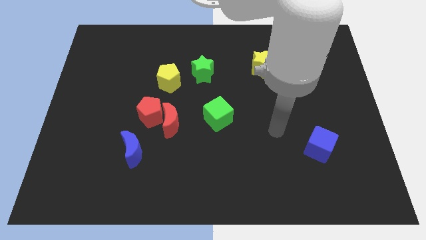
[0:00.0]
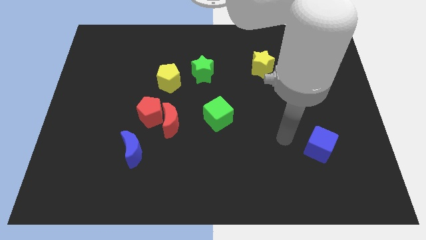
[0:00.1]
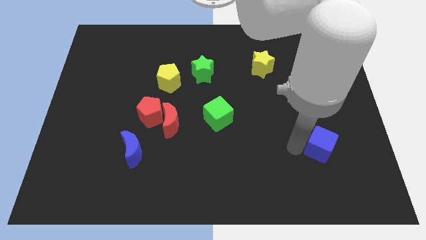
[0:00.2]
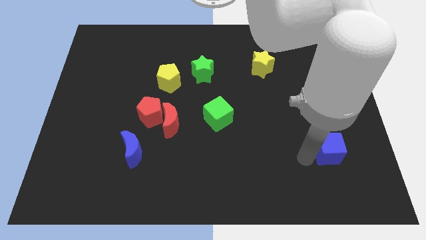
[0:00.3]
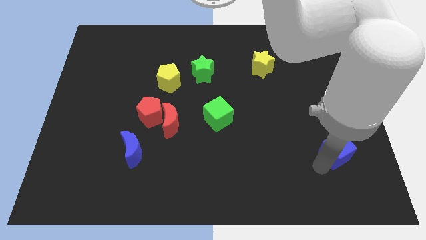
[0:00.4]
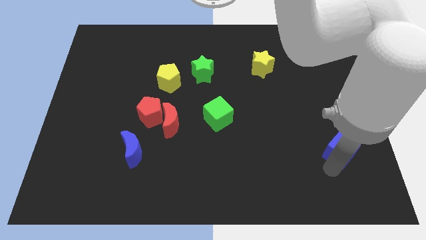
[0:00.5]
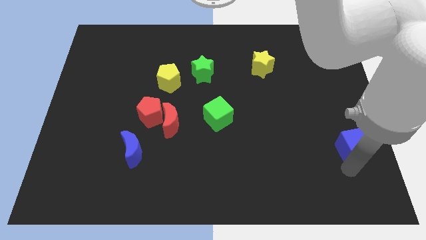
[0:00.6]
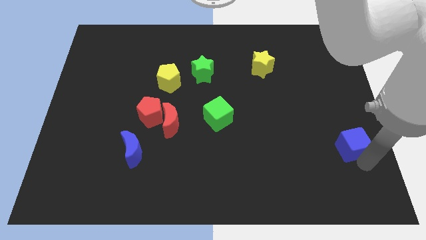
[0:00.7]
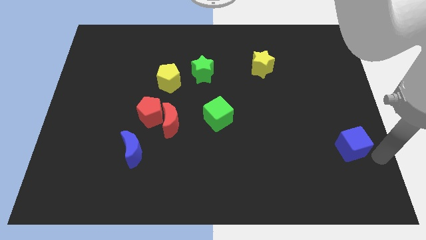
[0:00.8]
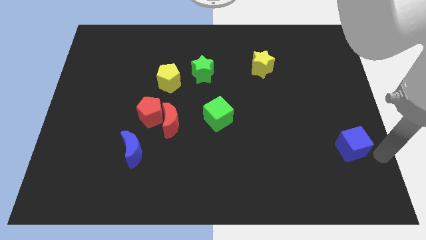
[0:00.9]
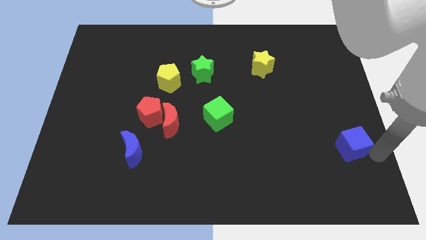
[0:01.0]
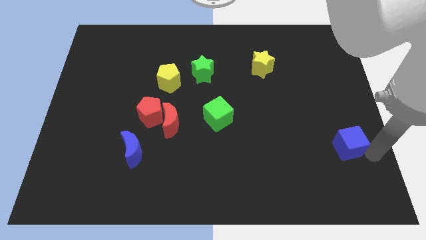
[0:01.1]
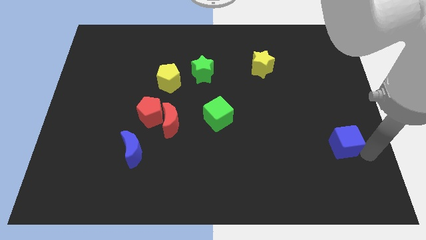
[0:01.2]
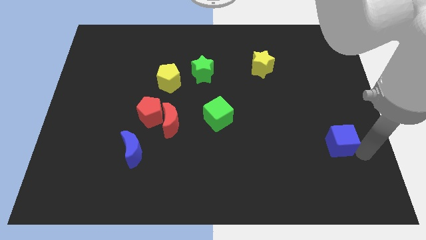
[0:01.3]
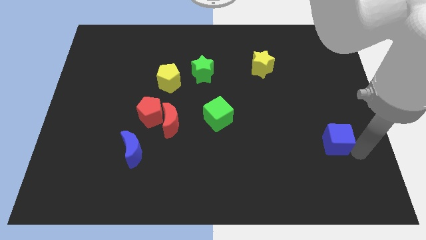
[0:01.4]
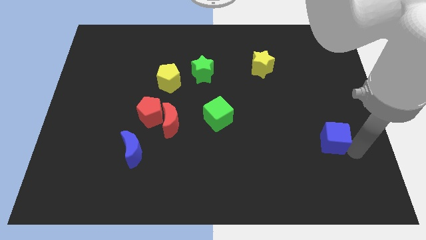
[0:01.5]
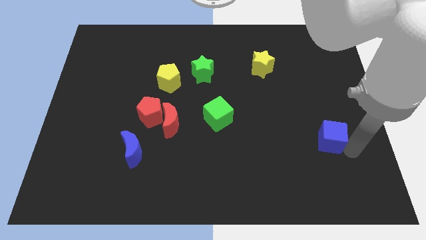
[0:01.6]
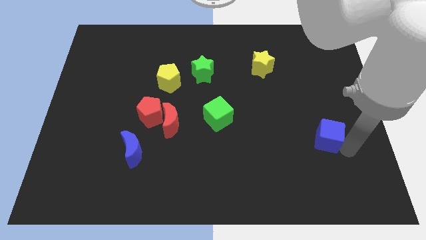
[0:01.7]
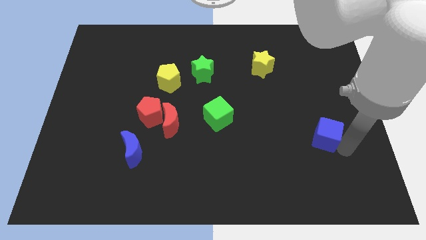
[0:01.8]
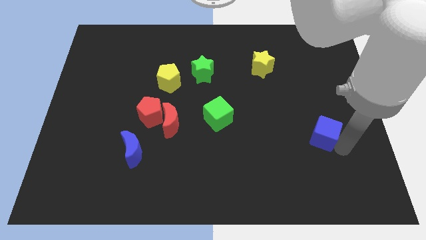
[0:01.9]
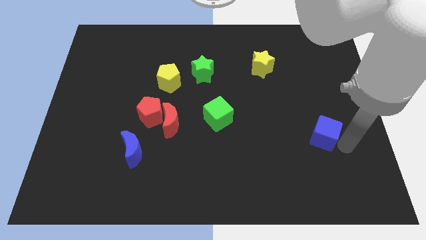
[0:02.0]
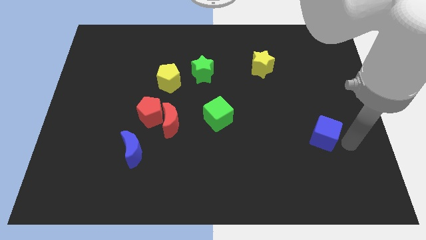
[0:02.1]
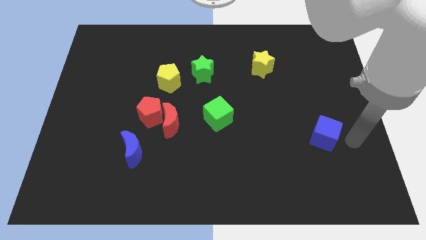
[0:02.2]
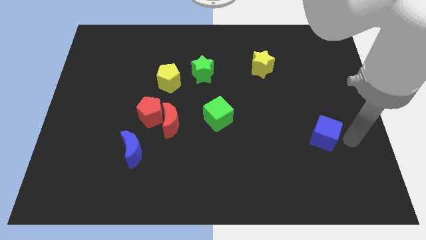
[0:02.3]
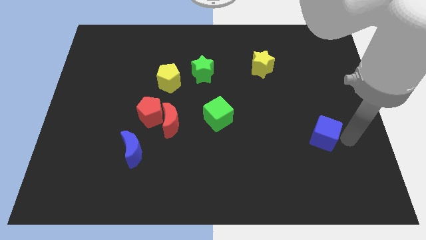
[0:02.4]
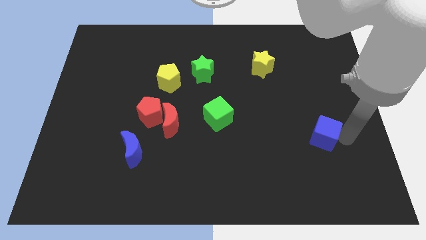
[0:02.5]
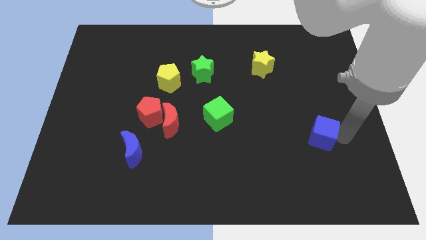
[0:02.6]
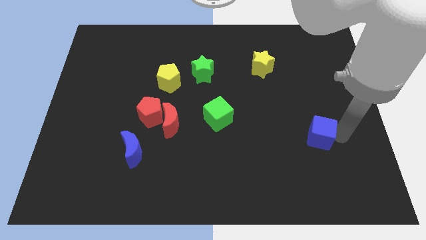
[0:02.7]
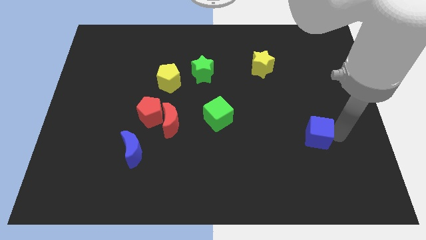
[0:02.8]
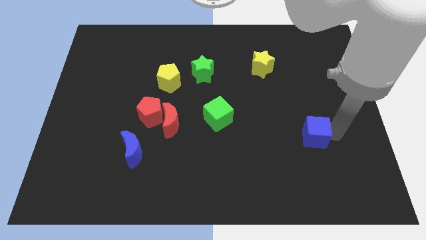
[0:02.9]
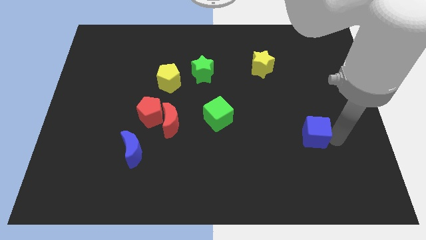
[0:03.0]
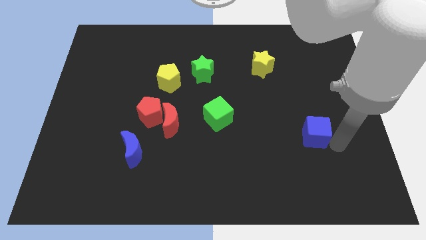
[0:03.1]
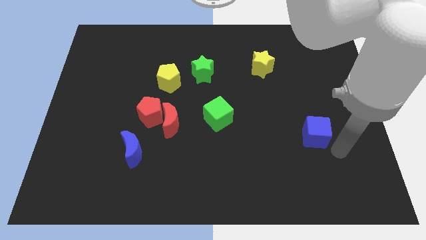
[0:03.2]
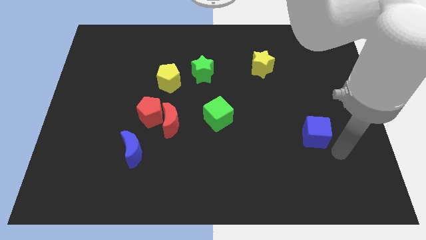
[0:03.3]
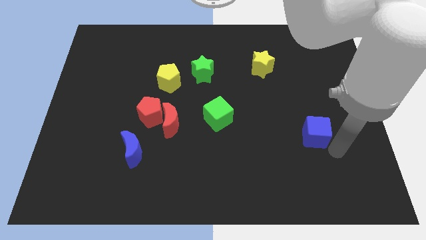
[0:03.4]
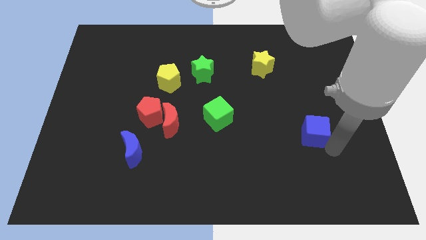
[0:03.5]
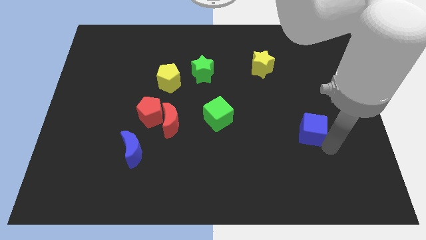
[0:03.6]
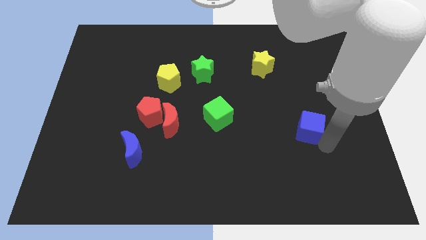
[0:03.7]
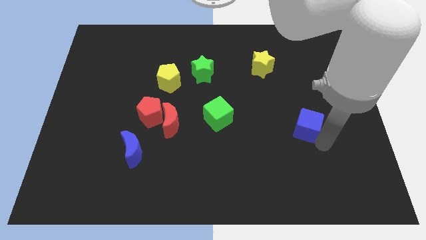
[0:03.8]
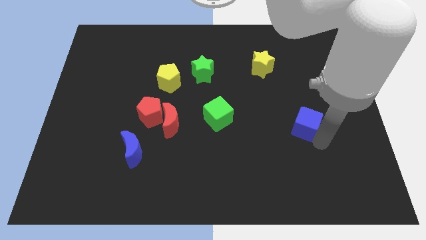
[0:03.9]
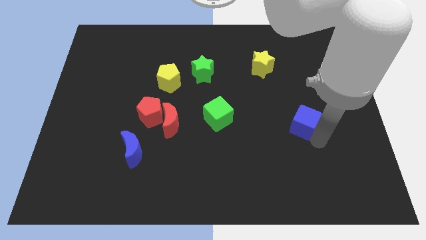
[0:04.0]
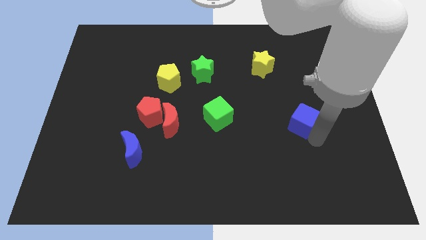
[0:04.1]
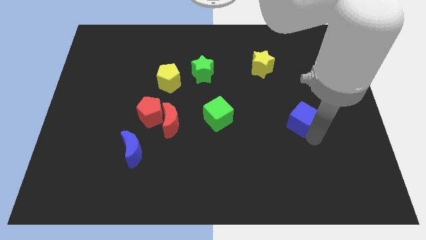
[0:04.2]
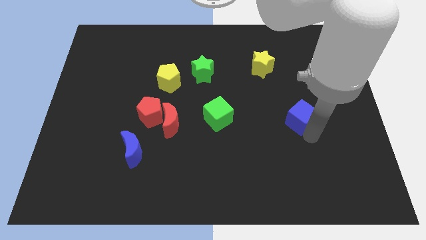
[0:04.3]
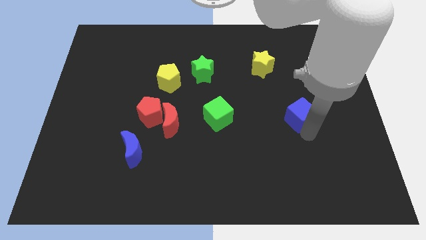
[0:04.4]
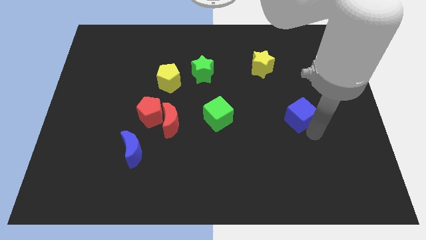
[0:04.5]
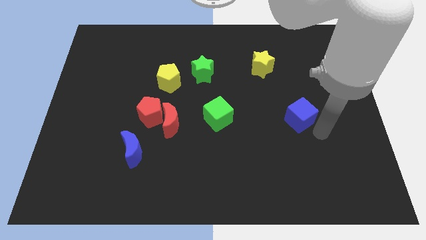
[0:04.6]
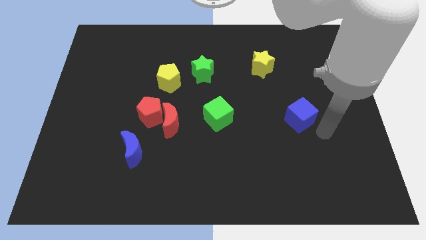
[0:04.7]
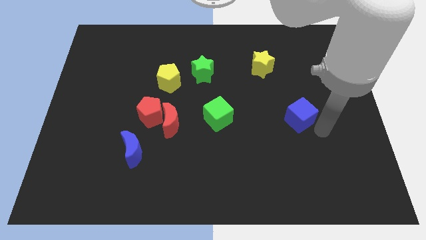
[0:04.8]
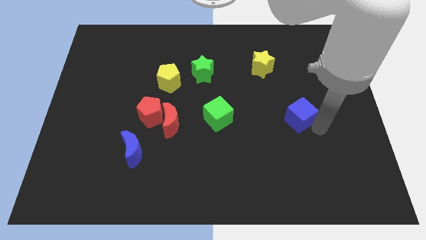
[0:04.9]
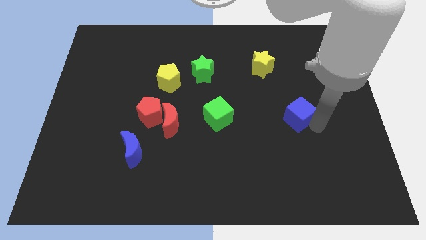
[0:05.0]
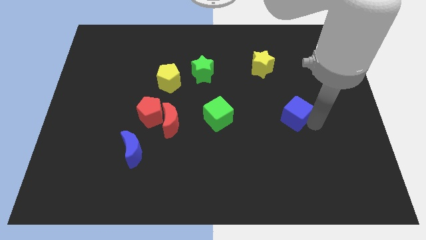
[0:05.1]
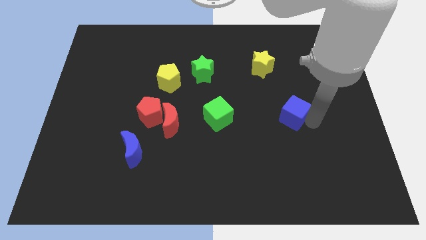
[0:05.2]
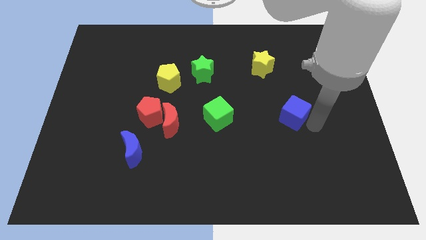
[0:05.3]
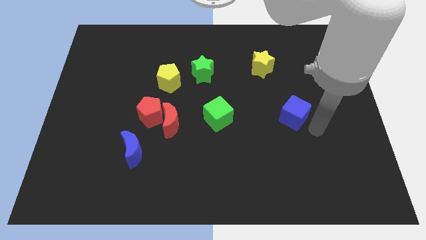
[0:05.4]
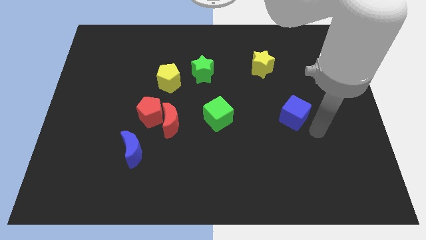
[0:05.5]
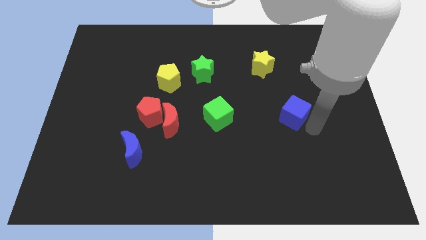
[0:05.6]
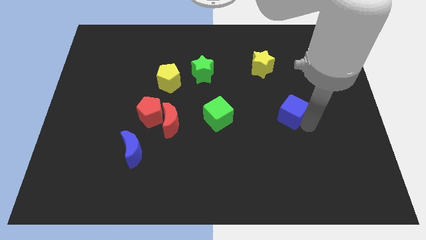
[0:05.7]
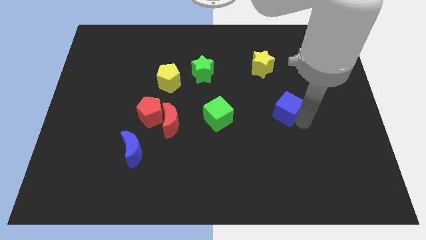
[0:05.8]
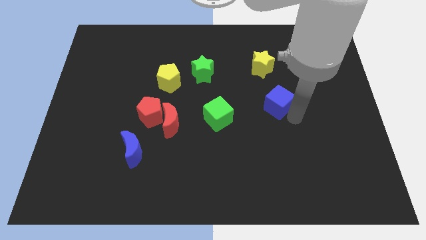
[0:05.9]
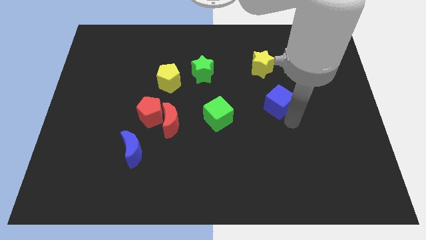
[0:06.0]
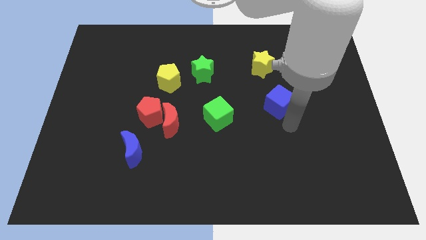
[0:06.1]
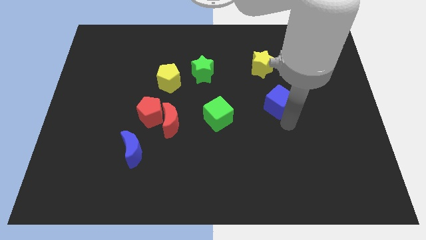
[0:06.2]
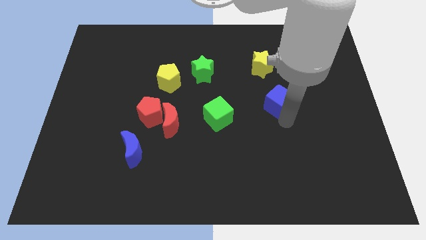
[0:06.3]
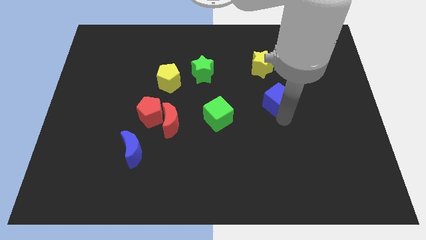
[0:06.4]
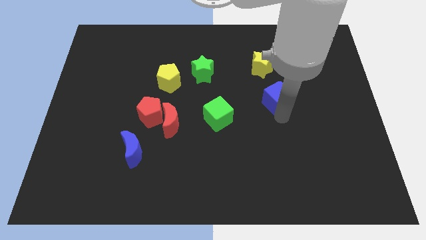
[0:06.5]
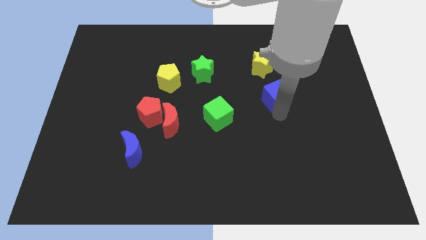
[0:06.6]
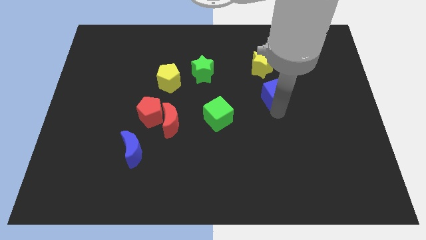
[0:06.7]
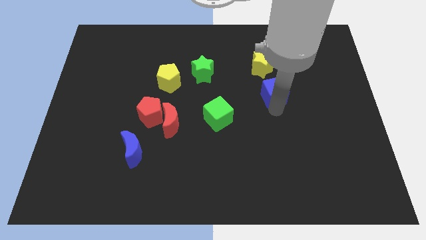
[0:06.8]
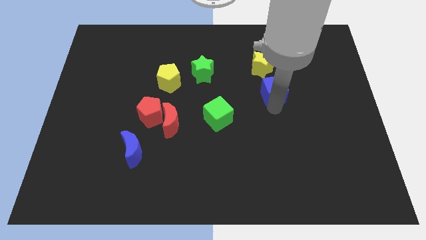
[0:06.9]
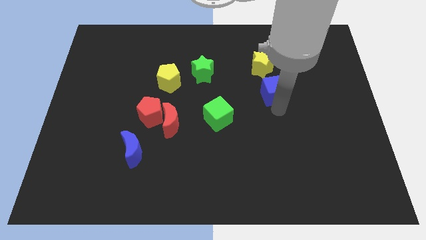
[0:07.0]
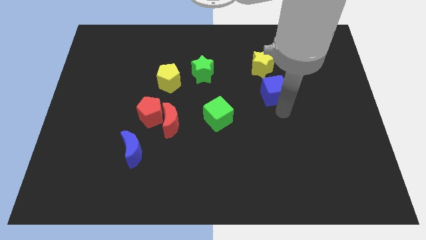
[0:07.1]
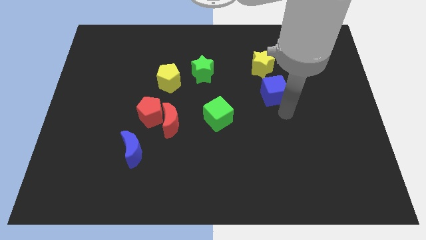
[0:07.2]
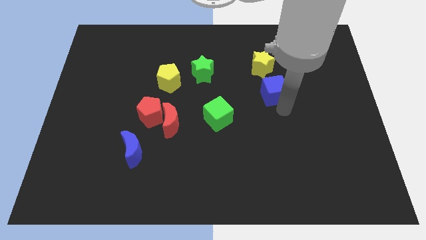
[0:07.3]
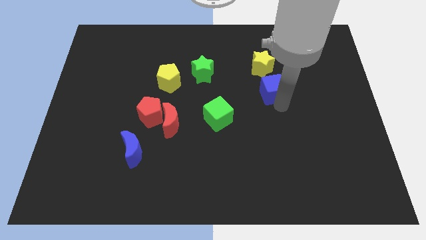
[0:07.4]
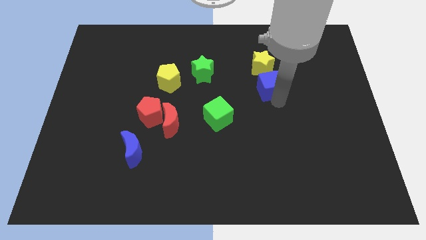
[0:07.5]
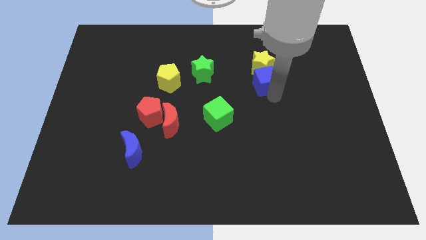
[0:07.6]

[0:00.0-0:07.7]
push the blue cube to the yellow star
